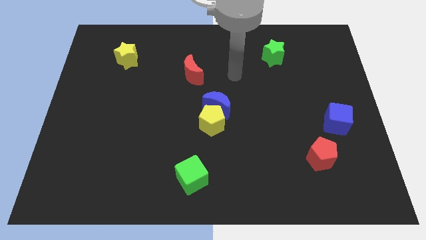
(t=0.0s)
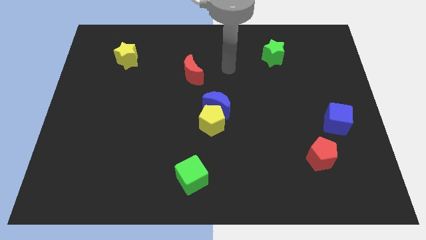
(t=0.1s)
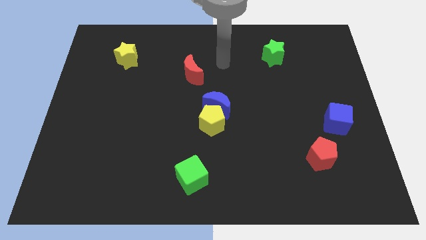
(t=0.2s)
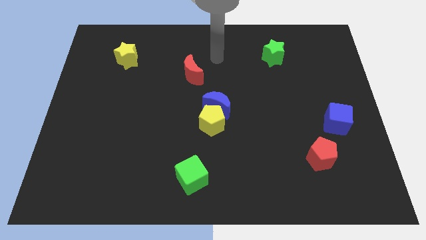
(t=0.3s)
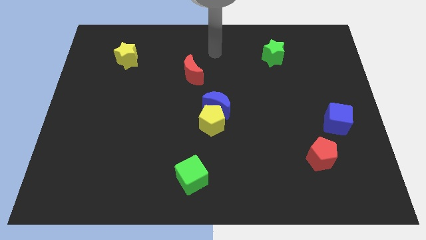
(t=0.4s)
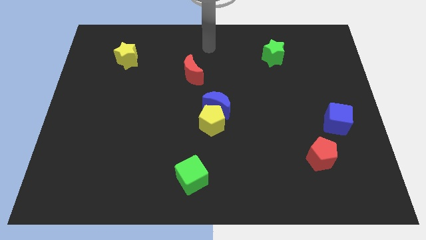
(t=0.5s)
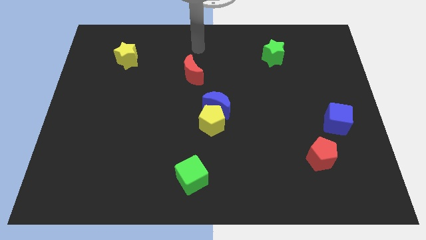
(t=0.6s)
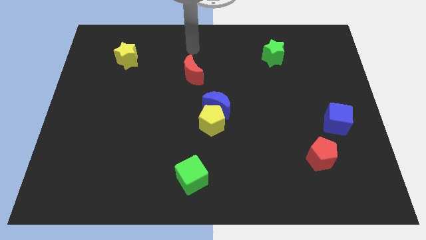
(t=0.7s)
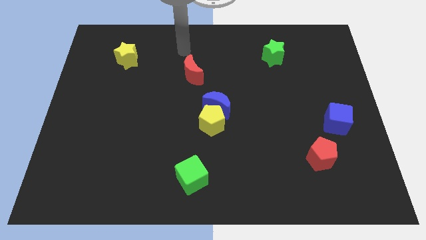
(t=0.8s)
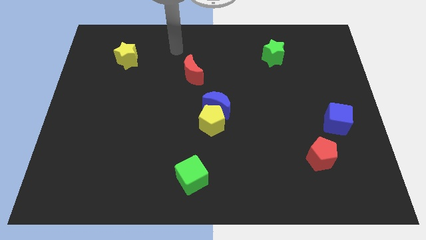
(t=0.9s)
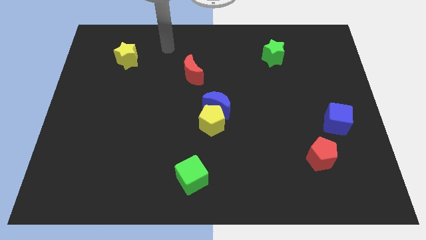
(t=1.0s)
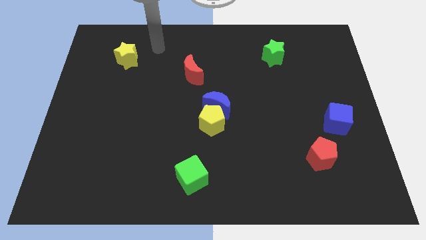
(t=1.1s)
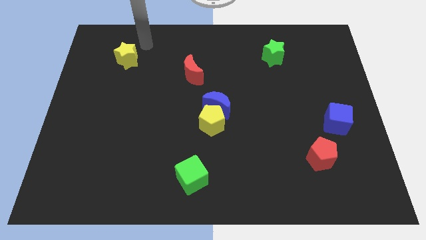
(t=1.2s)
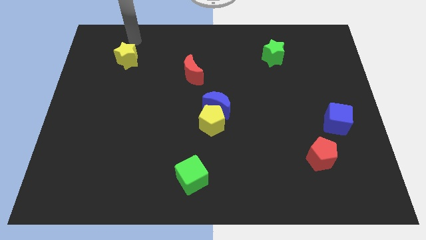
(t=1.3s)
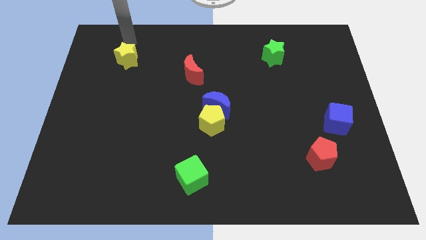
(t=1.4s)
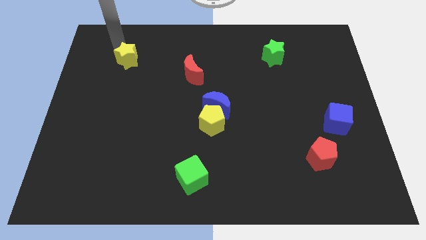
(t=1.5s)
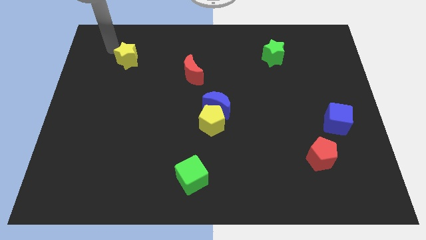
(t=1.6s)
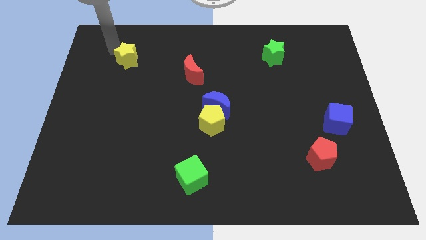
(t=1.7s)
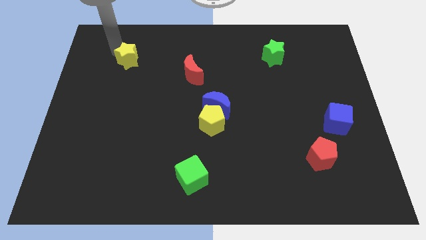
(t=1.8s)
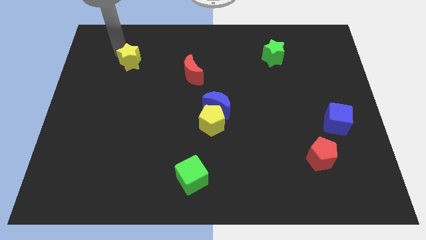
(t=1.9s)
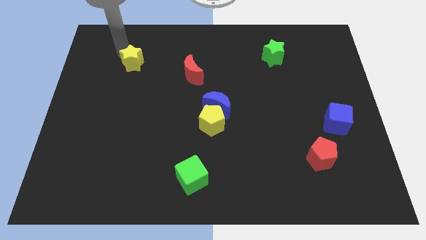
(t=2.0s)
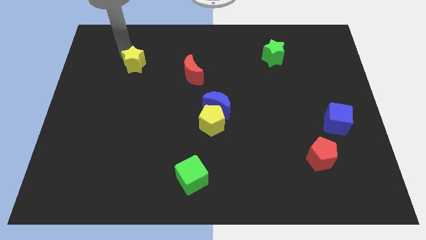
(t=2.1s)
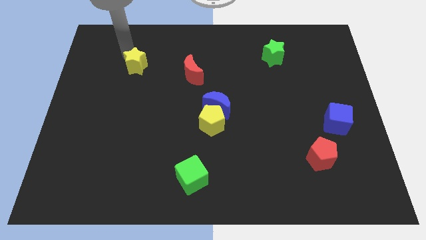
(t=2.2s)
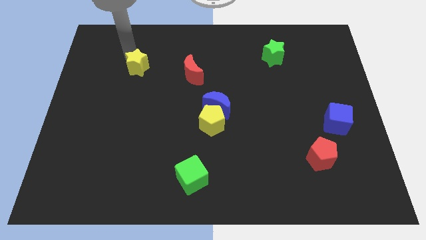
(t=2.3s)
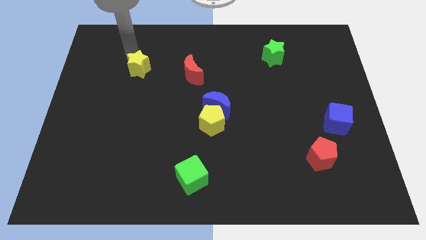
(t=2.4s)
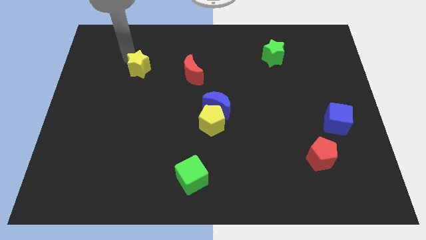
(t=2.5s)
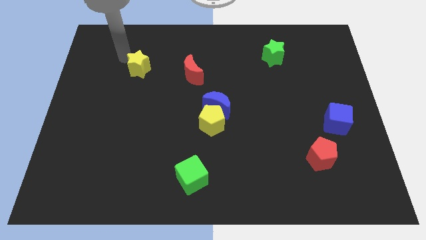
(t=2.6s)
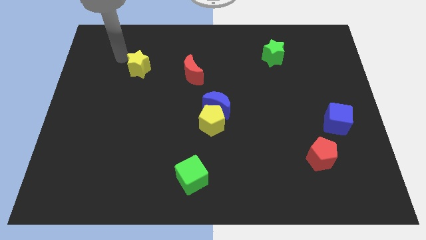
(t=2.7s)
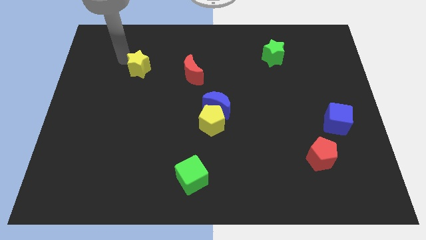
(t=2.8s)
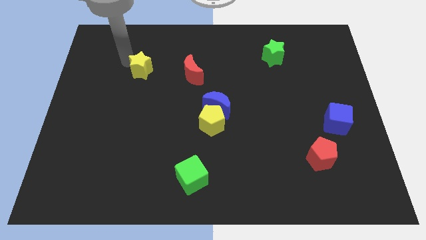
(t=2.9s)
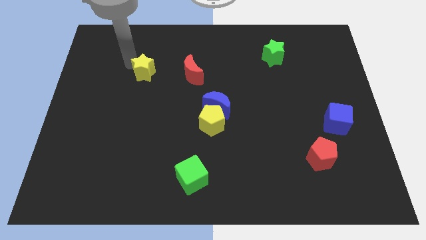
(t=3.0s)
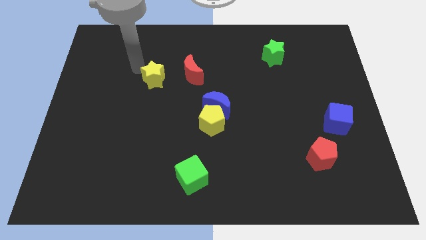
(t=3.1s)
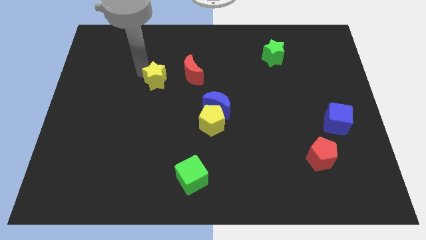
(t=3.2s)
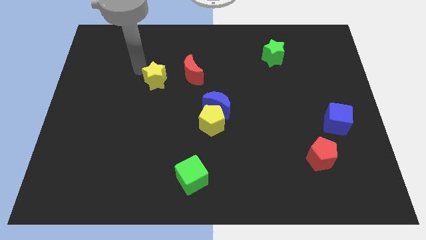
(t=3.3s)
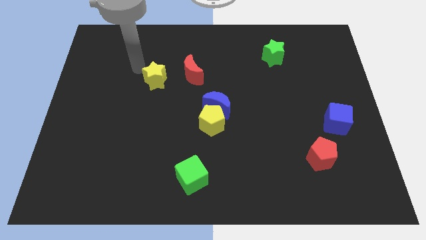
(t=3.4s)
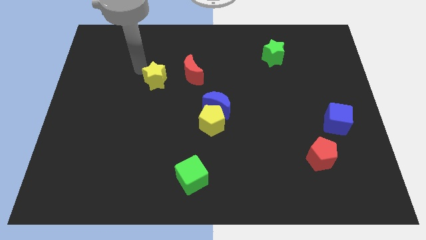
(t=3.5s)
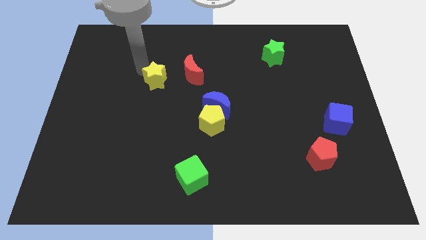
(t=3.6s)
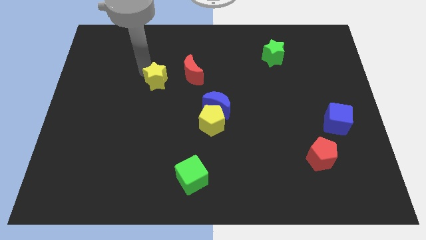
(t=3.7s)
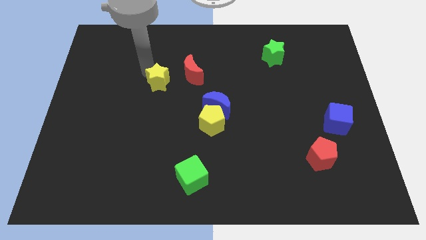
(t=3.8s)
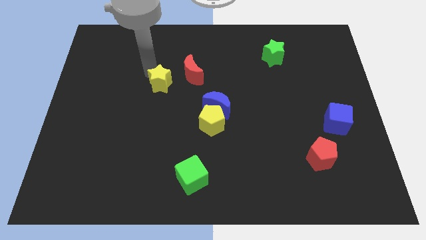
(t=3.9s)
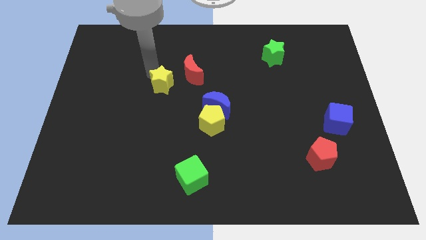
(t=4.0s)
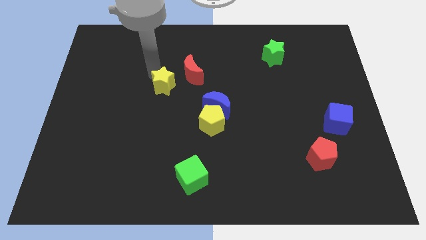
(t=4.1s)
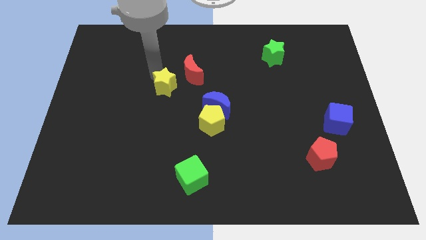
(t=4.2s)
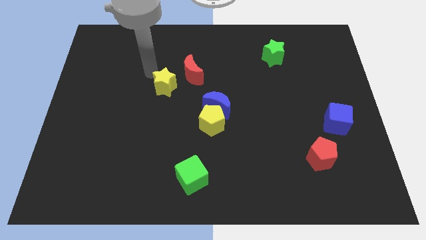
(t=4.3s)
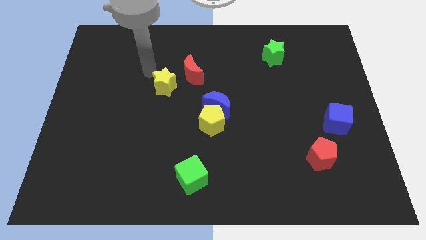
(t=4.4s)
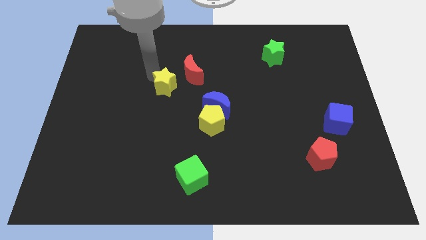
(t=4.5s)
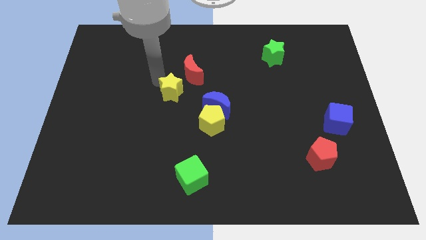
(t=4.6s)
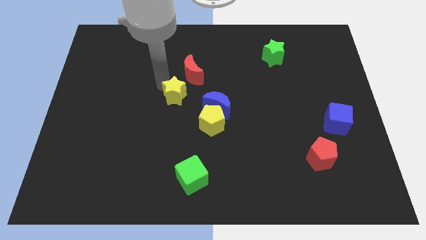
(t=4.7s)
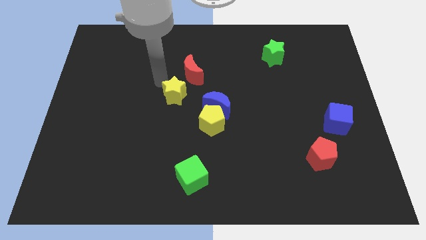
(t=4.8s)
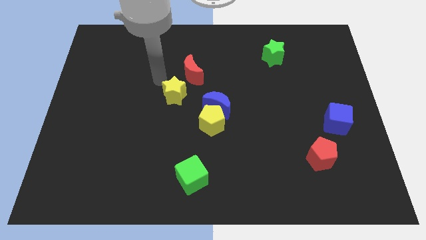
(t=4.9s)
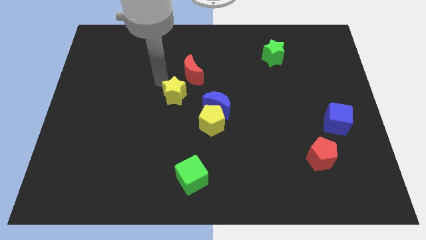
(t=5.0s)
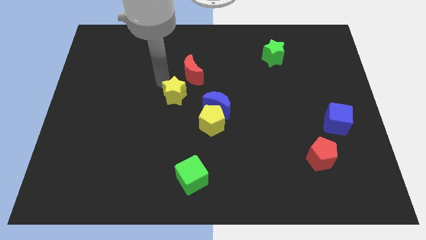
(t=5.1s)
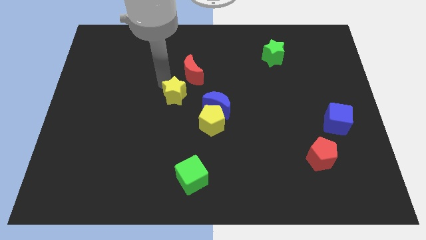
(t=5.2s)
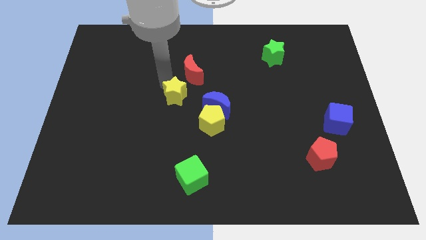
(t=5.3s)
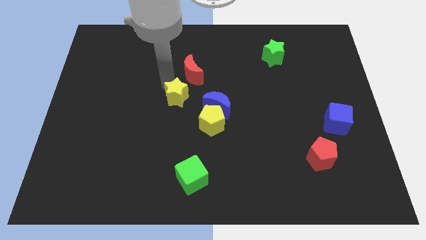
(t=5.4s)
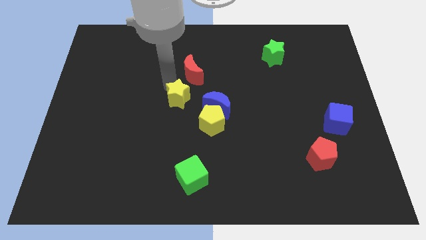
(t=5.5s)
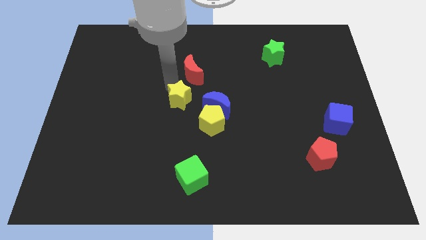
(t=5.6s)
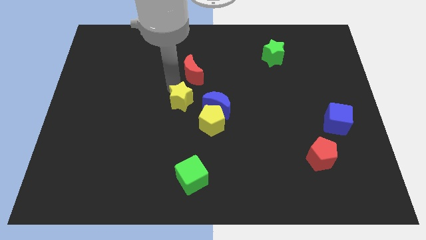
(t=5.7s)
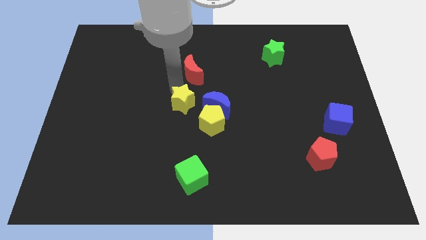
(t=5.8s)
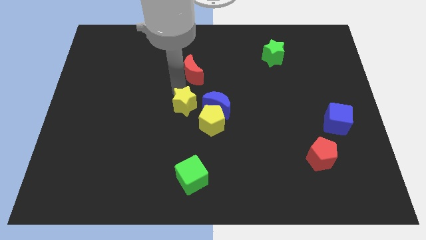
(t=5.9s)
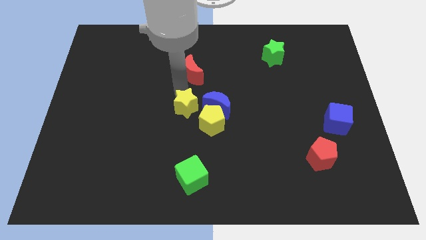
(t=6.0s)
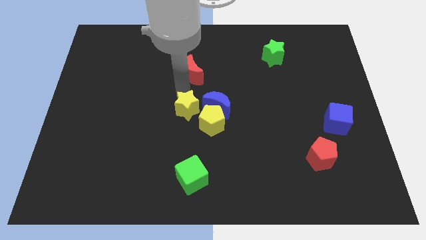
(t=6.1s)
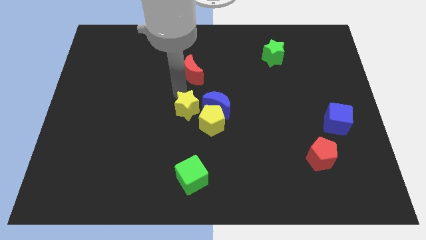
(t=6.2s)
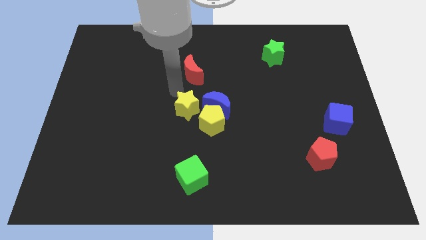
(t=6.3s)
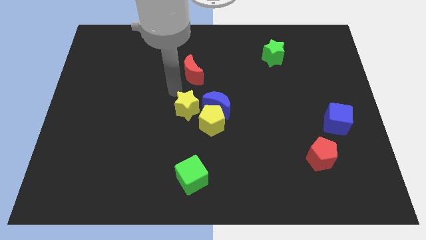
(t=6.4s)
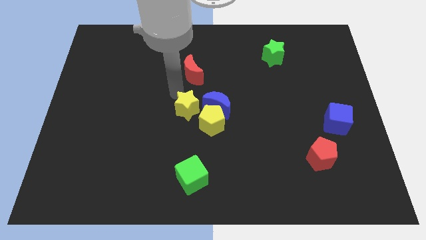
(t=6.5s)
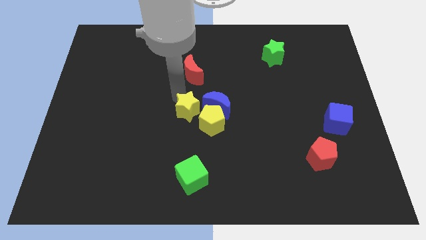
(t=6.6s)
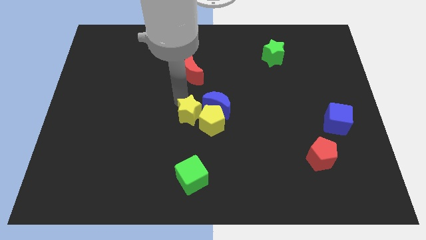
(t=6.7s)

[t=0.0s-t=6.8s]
move the yellow star close to the yellow pentagon
